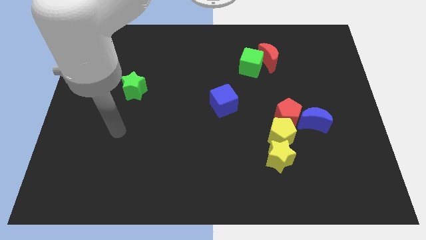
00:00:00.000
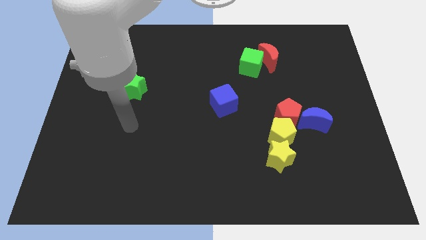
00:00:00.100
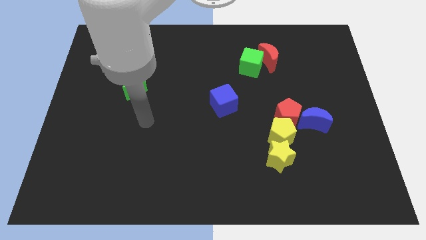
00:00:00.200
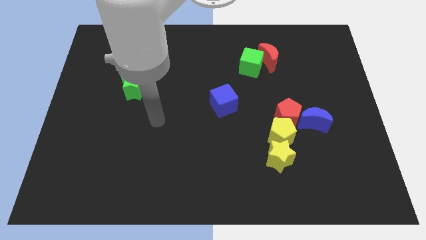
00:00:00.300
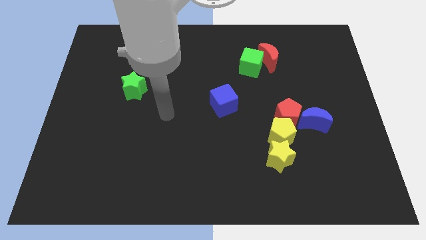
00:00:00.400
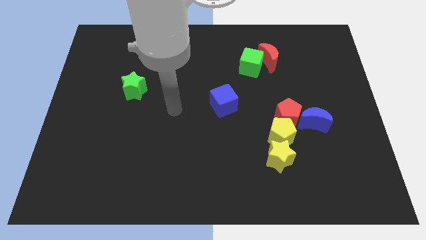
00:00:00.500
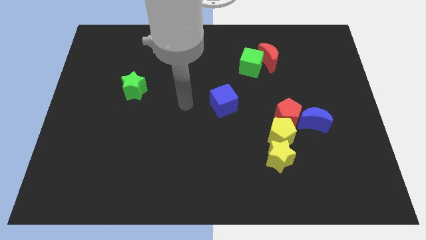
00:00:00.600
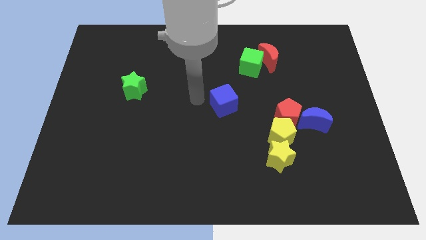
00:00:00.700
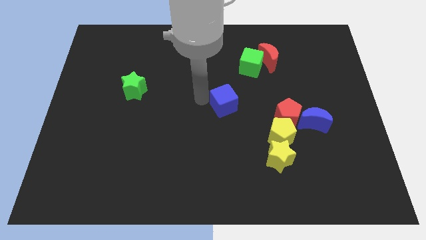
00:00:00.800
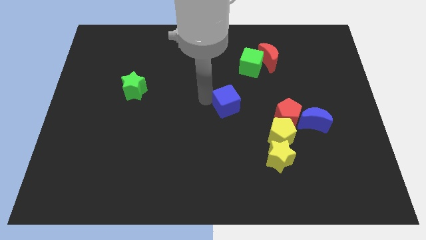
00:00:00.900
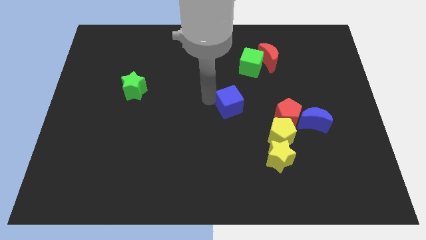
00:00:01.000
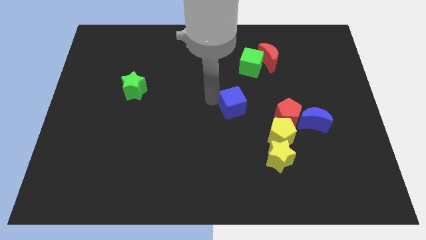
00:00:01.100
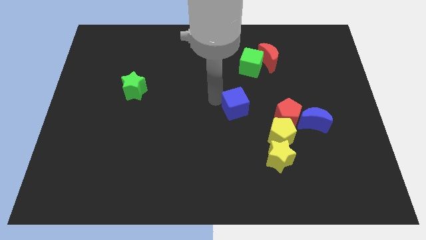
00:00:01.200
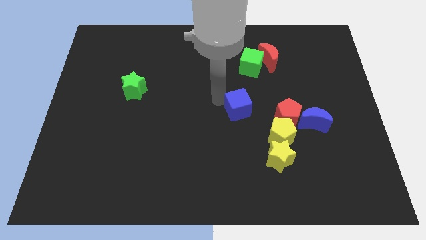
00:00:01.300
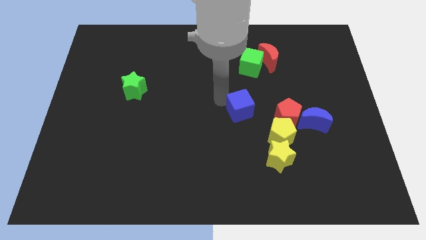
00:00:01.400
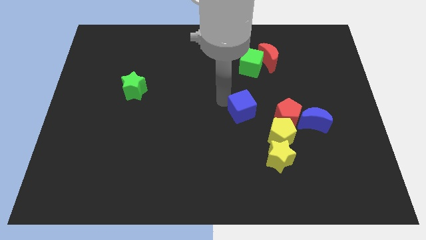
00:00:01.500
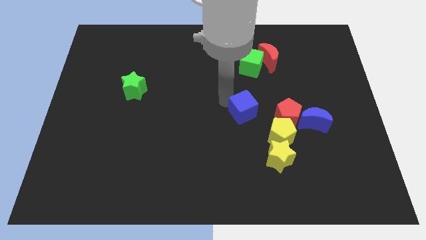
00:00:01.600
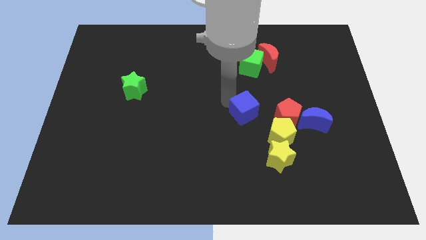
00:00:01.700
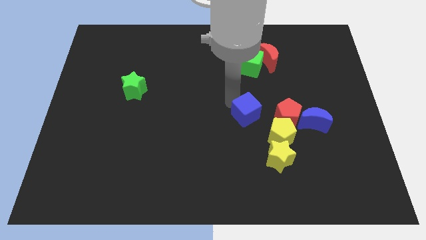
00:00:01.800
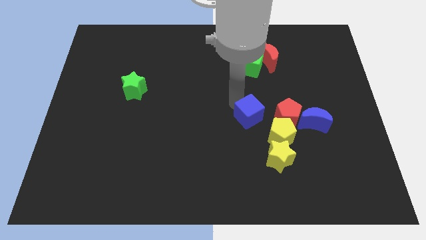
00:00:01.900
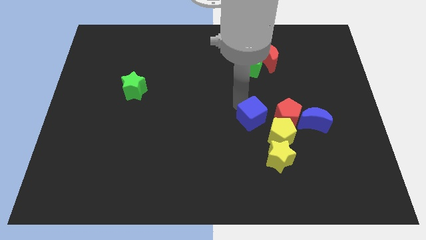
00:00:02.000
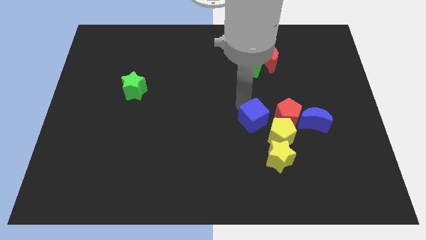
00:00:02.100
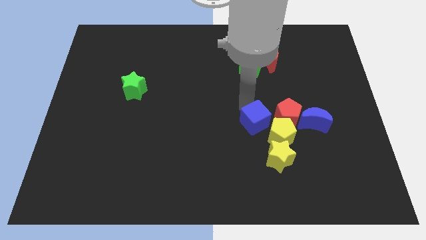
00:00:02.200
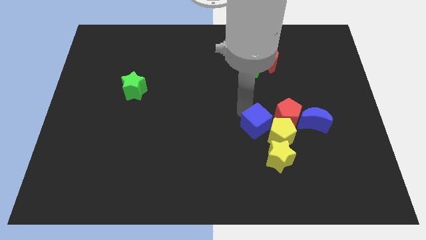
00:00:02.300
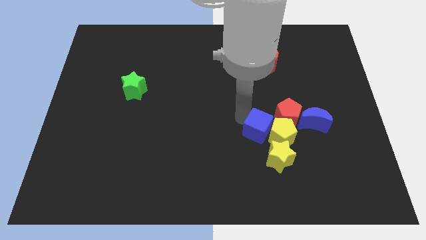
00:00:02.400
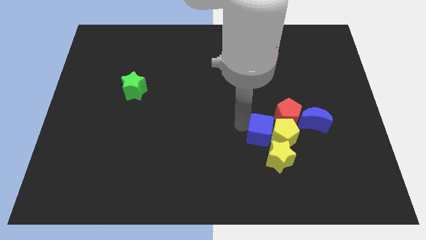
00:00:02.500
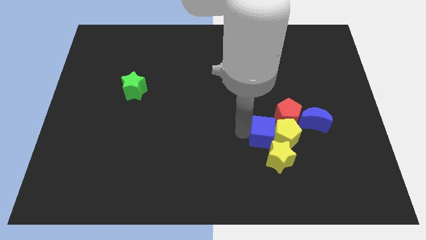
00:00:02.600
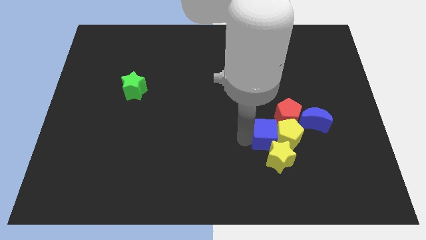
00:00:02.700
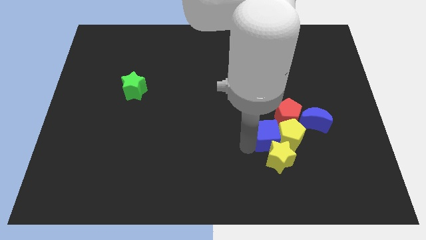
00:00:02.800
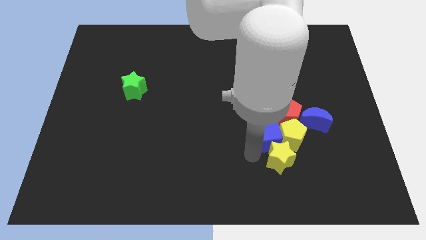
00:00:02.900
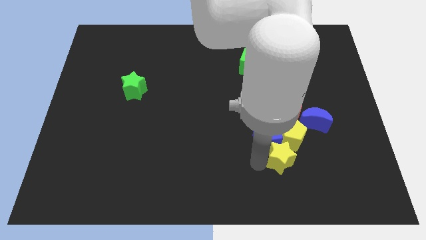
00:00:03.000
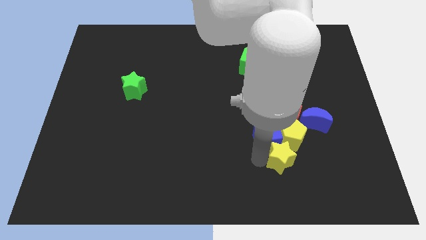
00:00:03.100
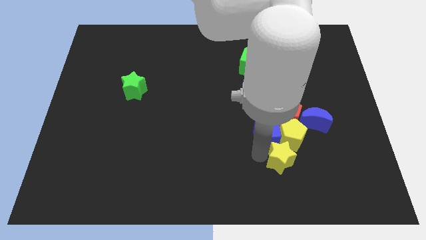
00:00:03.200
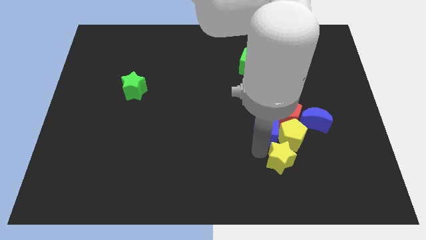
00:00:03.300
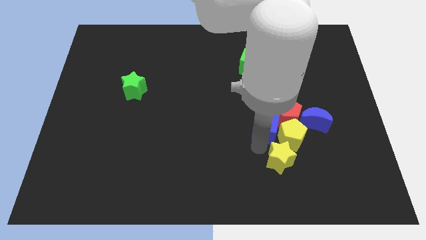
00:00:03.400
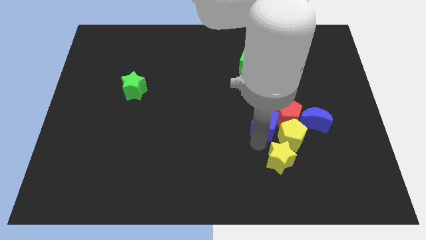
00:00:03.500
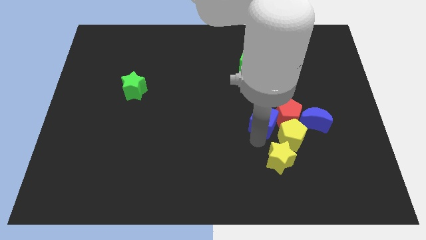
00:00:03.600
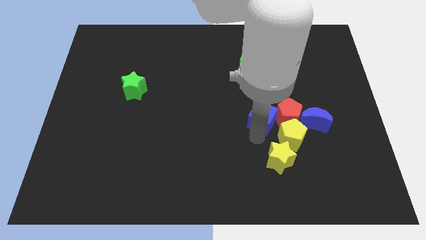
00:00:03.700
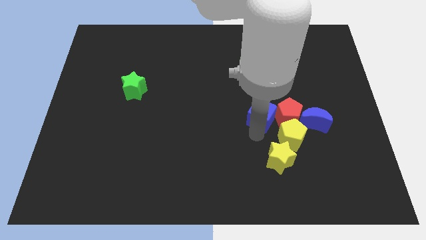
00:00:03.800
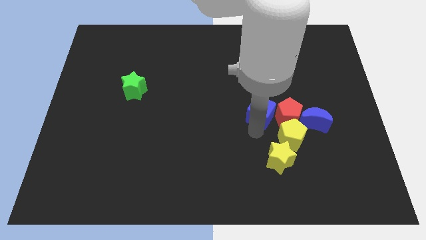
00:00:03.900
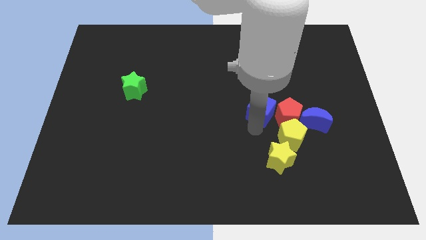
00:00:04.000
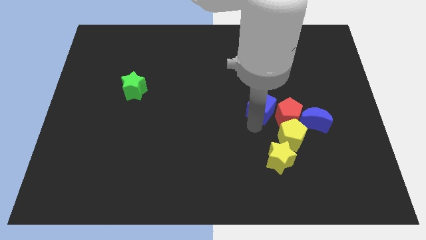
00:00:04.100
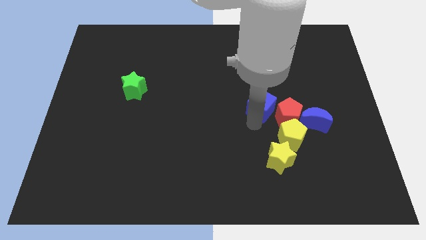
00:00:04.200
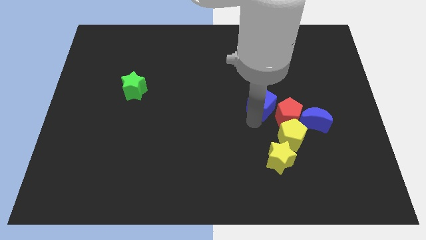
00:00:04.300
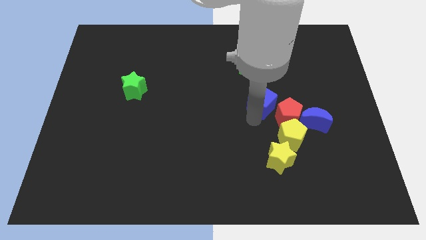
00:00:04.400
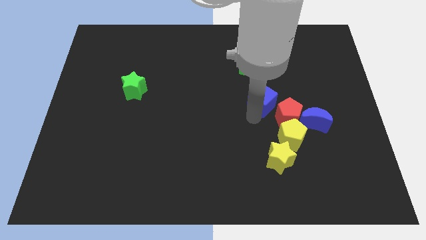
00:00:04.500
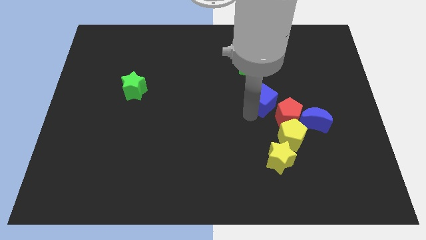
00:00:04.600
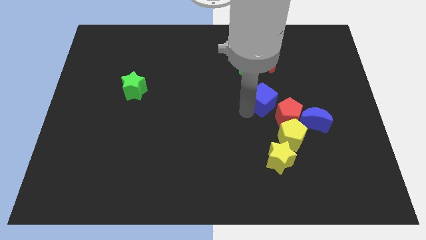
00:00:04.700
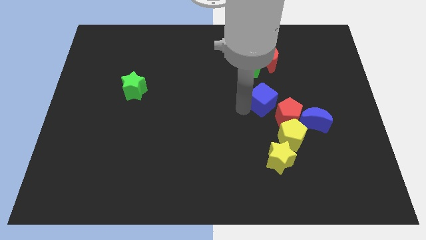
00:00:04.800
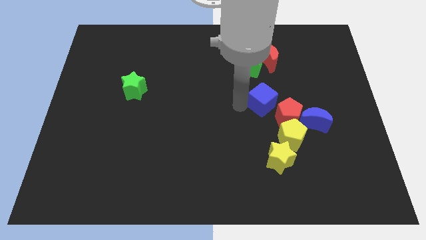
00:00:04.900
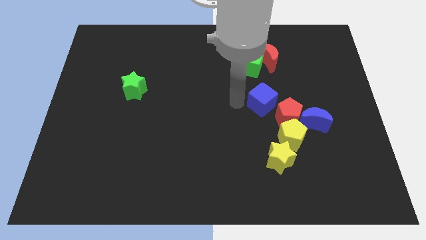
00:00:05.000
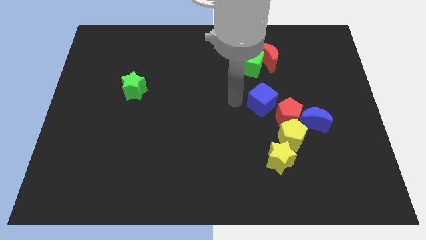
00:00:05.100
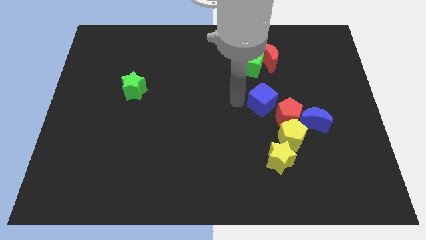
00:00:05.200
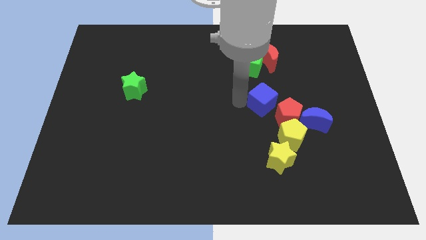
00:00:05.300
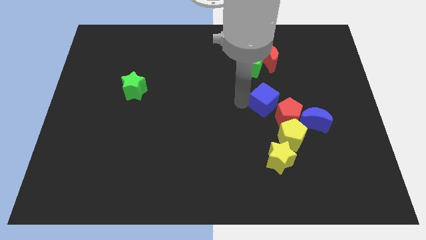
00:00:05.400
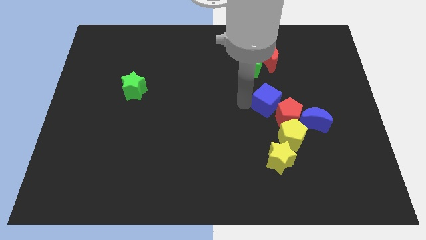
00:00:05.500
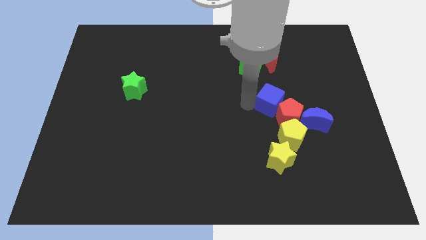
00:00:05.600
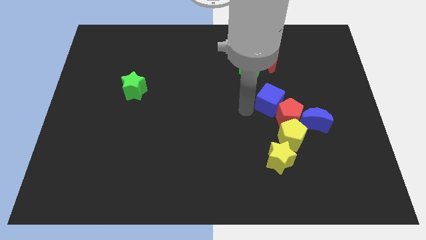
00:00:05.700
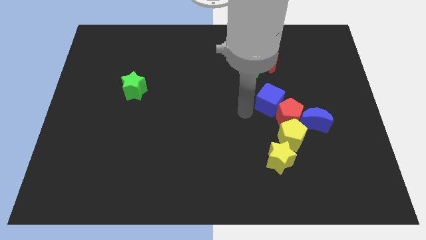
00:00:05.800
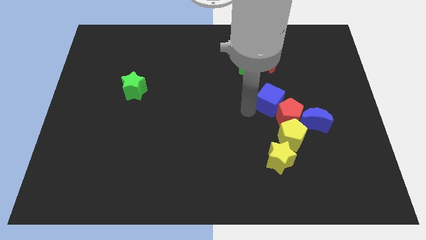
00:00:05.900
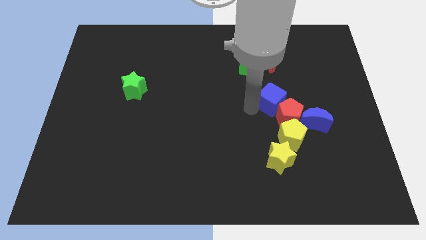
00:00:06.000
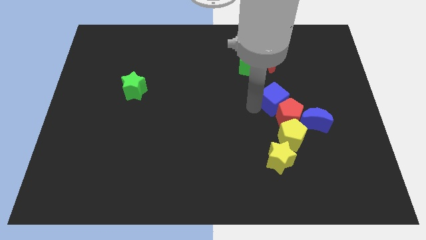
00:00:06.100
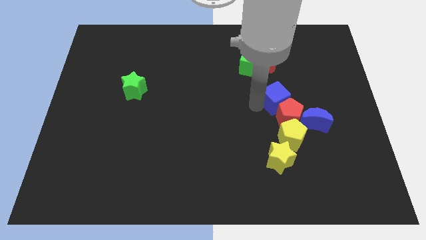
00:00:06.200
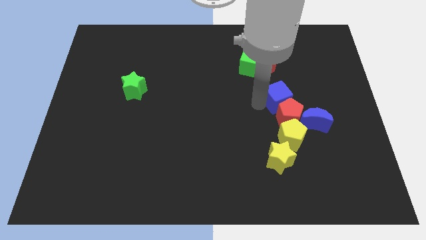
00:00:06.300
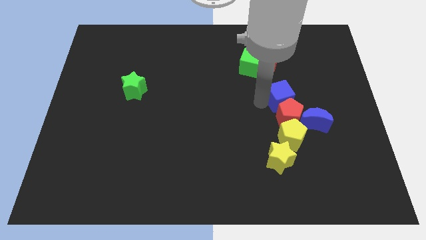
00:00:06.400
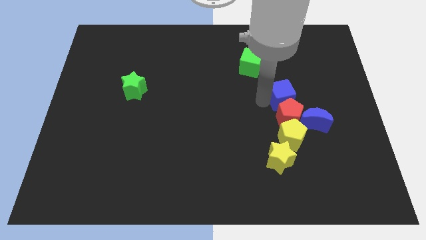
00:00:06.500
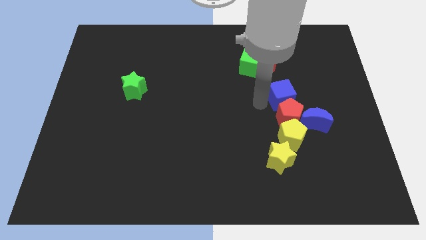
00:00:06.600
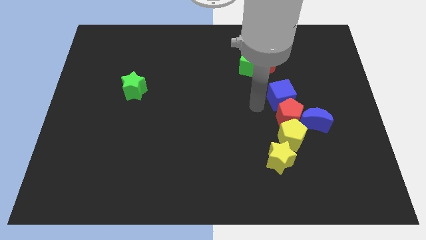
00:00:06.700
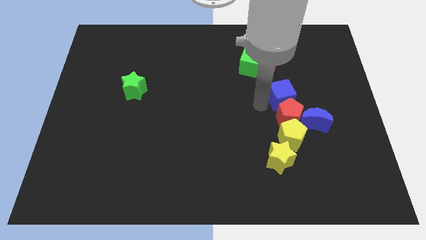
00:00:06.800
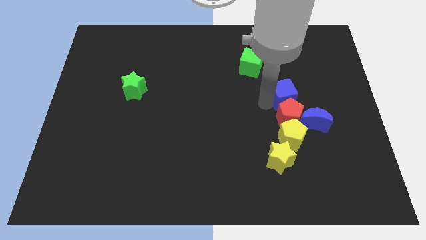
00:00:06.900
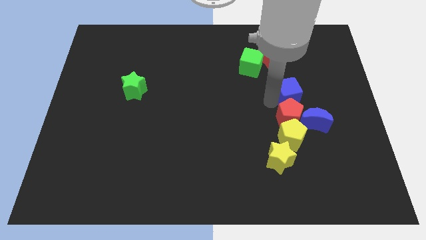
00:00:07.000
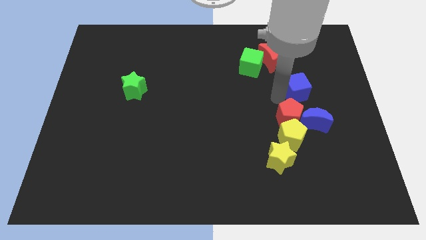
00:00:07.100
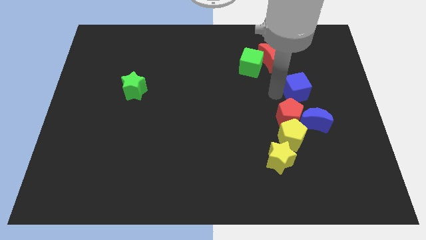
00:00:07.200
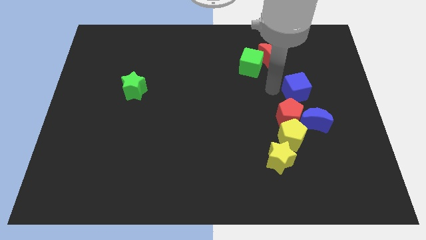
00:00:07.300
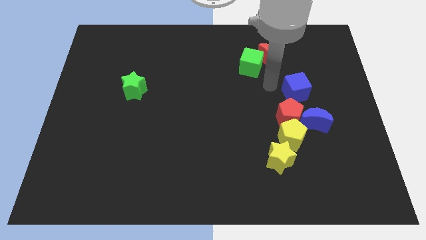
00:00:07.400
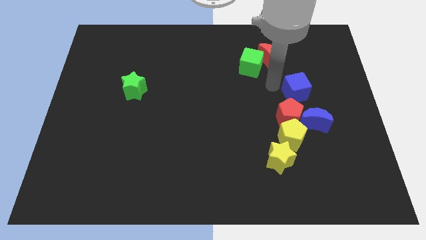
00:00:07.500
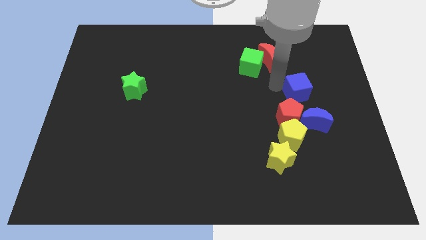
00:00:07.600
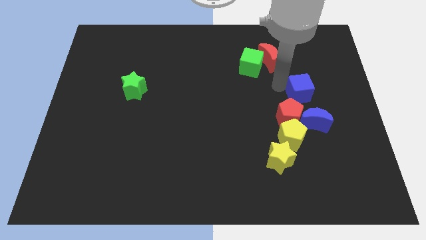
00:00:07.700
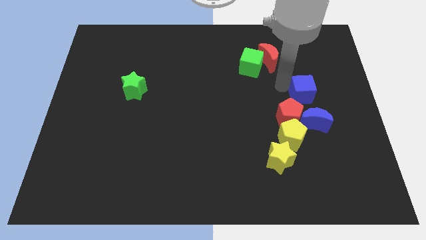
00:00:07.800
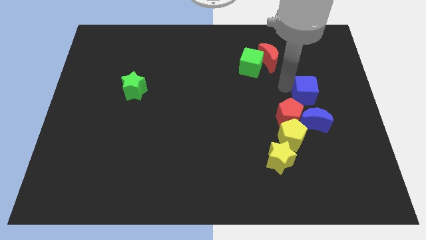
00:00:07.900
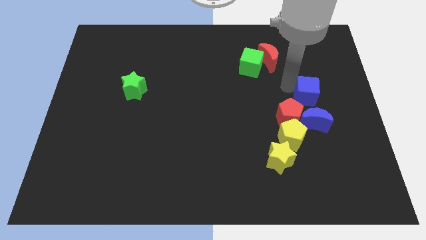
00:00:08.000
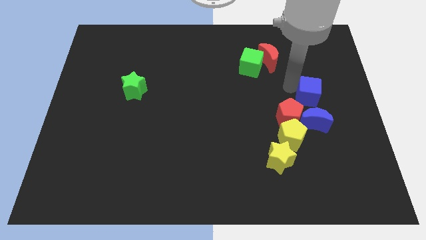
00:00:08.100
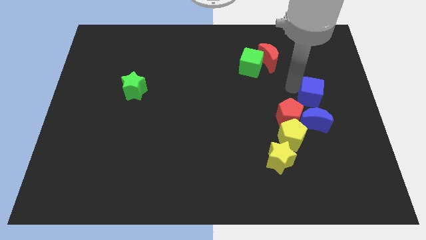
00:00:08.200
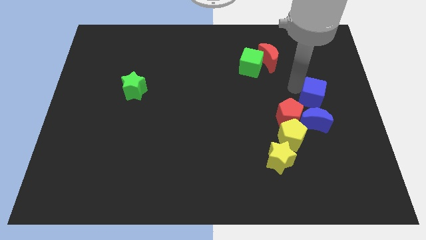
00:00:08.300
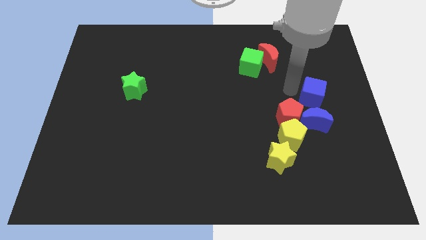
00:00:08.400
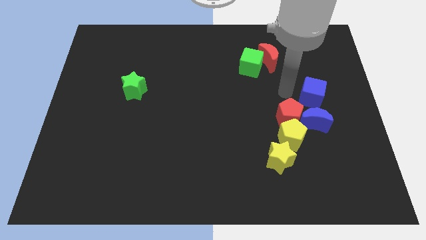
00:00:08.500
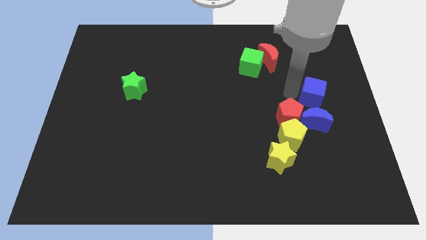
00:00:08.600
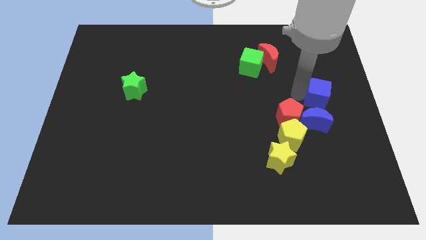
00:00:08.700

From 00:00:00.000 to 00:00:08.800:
put the blue cube to the right side of the board
